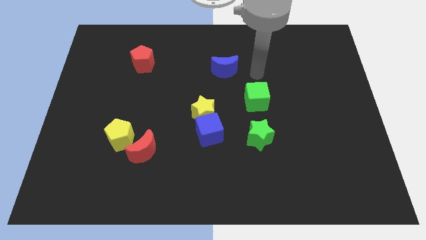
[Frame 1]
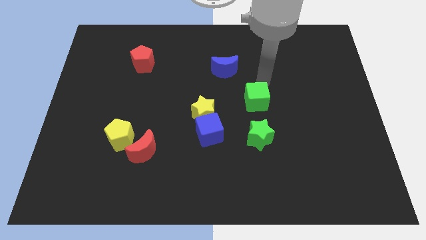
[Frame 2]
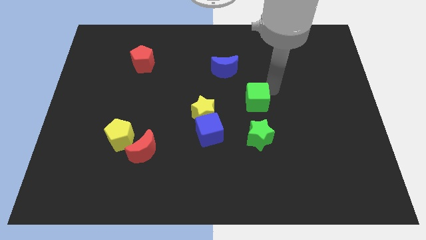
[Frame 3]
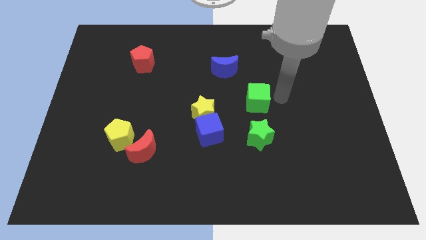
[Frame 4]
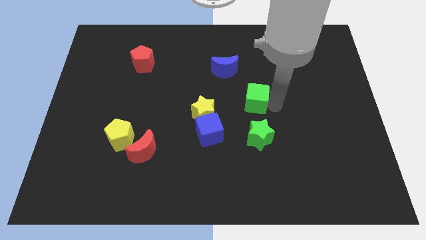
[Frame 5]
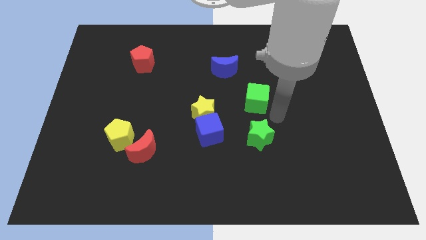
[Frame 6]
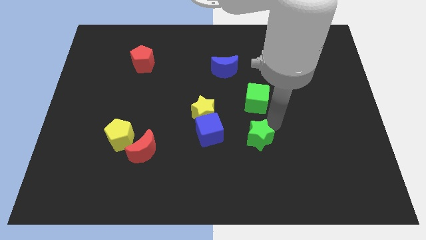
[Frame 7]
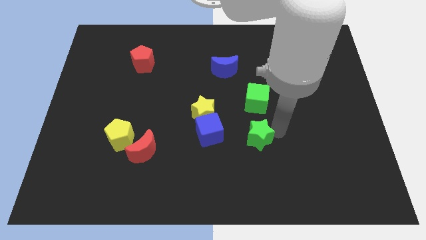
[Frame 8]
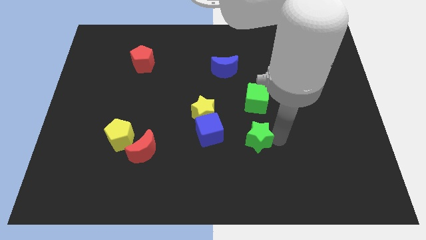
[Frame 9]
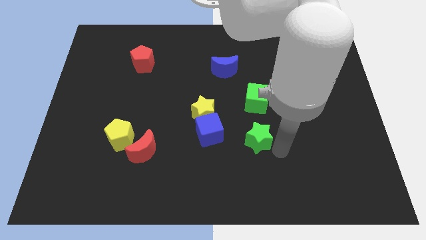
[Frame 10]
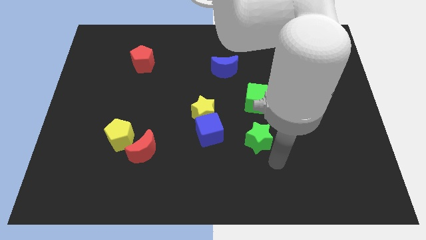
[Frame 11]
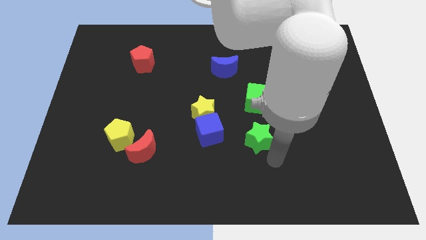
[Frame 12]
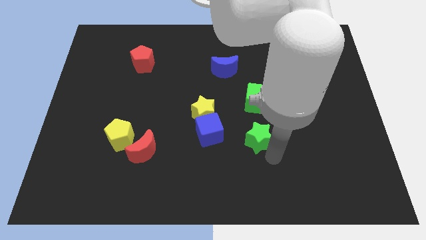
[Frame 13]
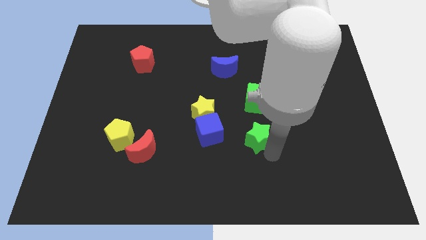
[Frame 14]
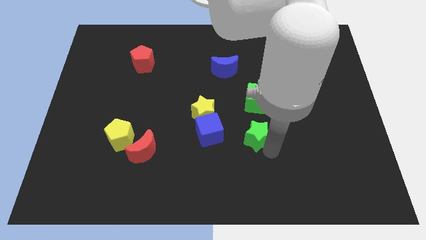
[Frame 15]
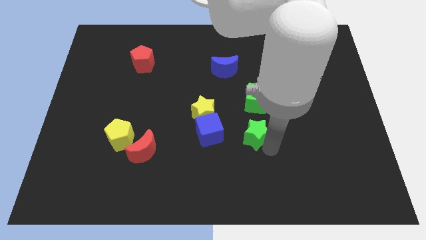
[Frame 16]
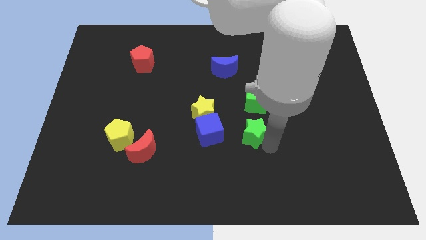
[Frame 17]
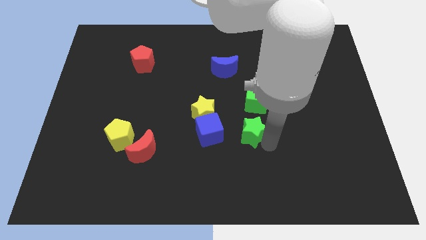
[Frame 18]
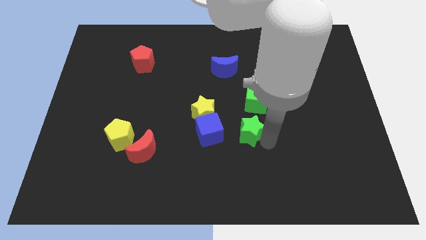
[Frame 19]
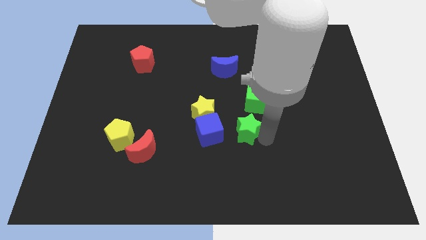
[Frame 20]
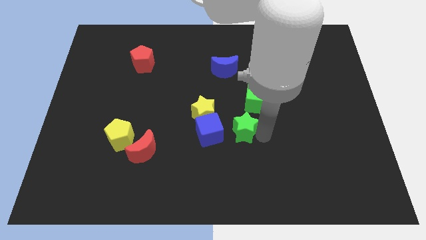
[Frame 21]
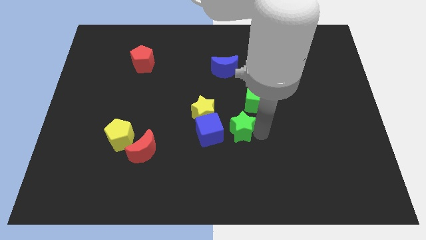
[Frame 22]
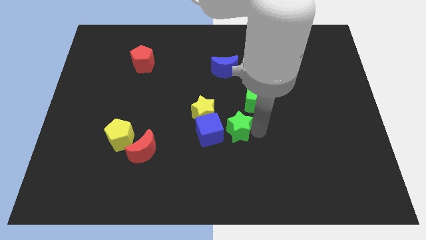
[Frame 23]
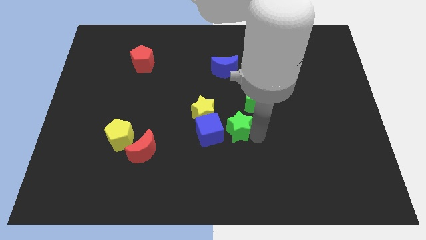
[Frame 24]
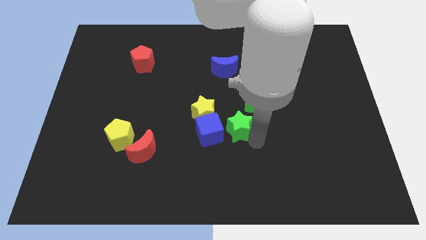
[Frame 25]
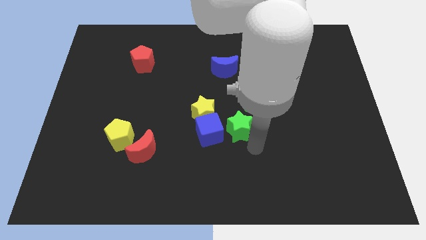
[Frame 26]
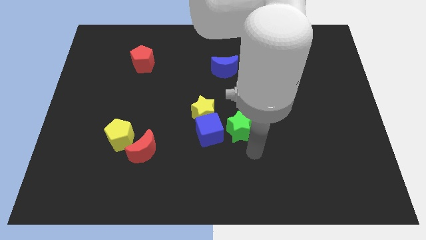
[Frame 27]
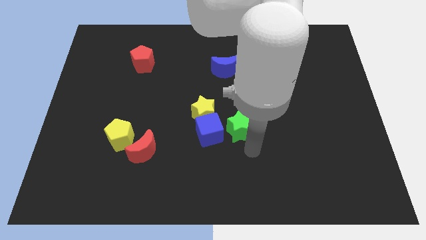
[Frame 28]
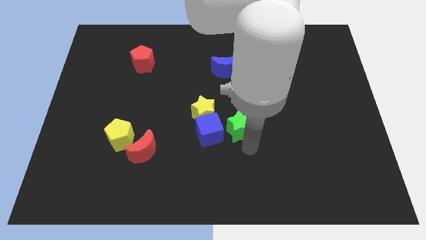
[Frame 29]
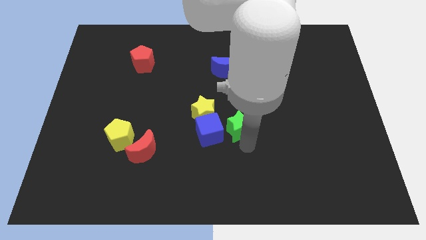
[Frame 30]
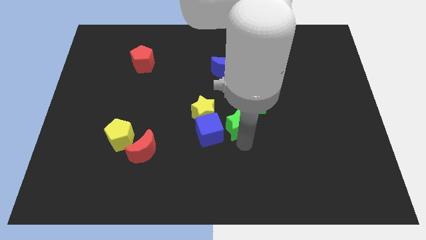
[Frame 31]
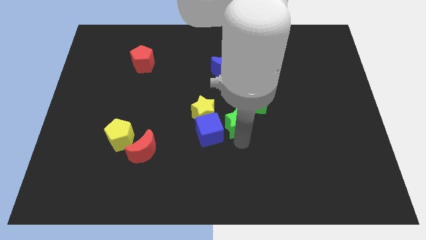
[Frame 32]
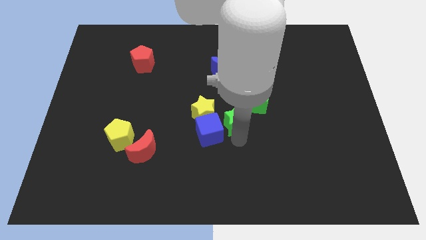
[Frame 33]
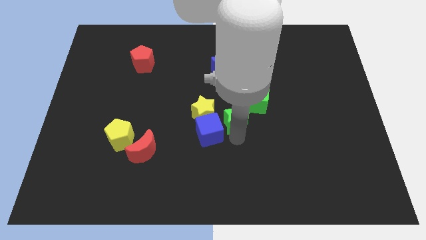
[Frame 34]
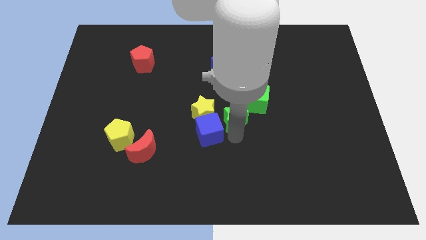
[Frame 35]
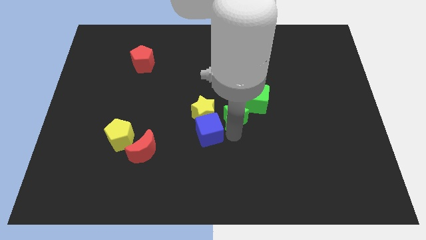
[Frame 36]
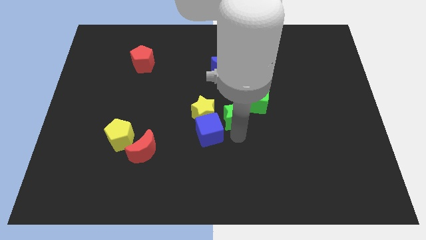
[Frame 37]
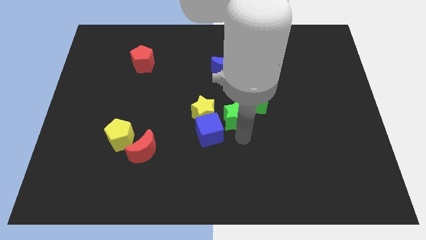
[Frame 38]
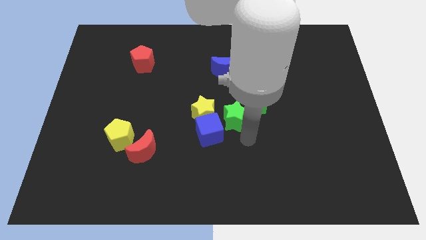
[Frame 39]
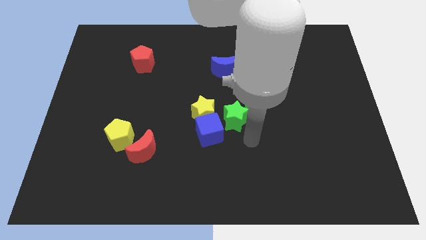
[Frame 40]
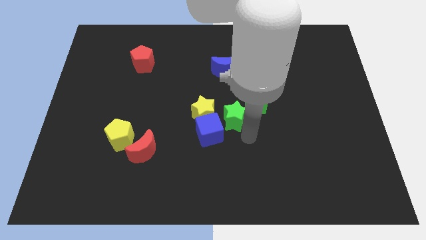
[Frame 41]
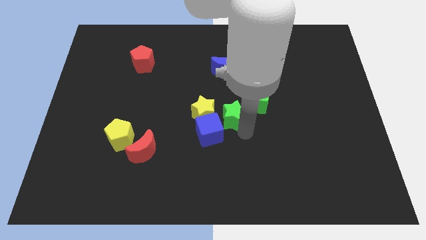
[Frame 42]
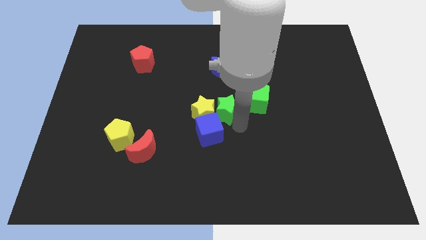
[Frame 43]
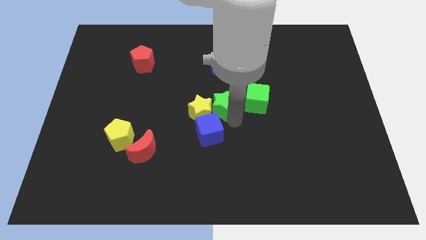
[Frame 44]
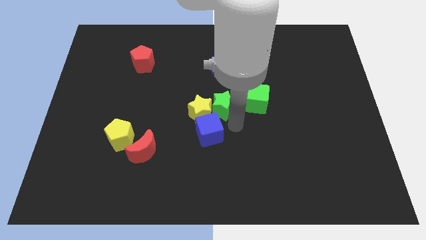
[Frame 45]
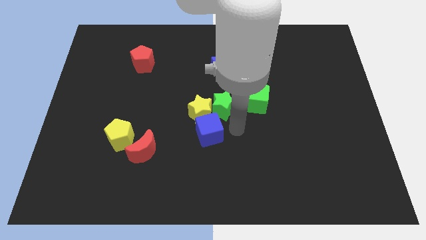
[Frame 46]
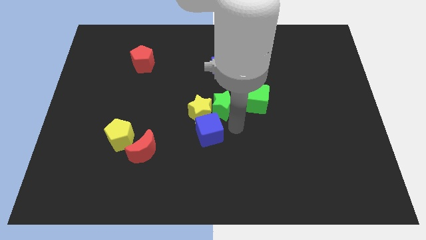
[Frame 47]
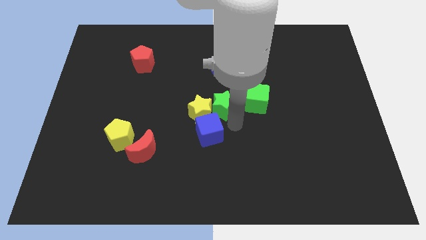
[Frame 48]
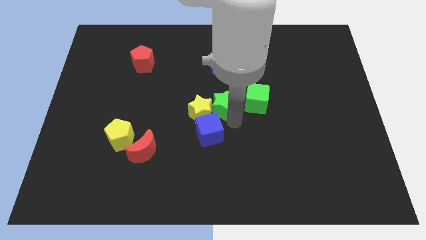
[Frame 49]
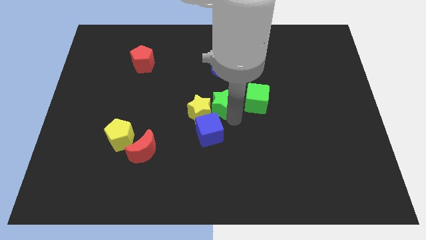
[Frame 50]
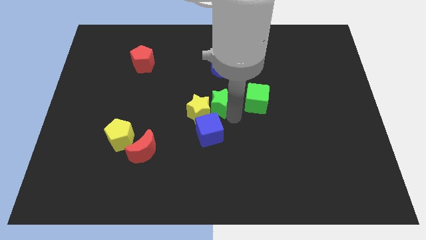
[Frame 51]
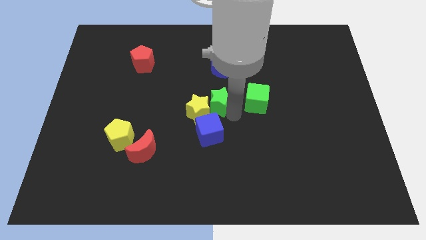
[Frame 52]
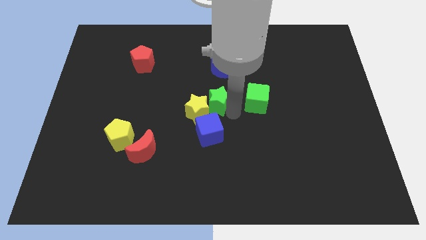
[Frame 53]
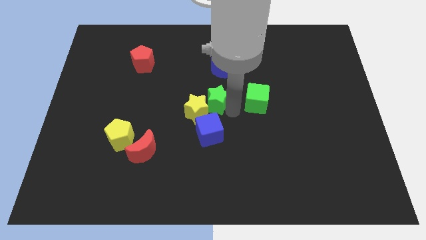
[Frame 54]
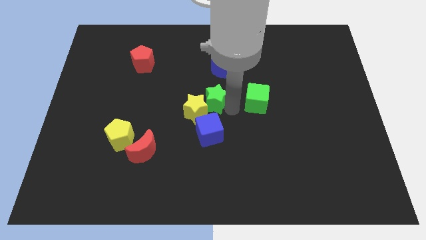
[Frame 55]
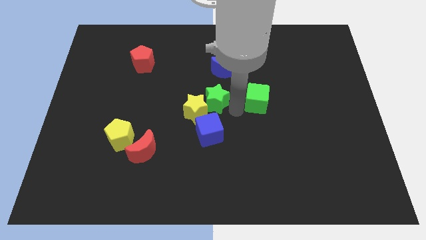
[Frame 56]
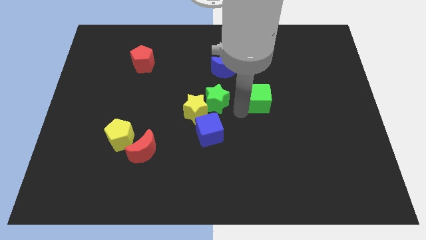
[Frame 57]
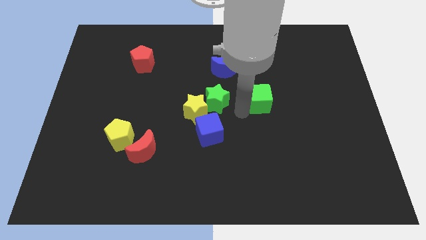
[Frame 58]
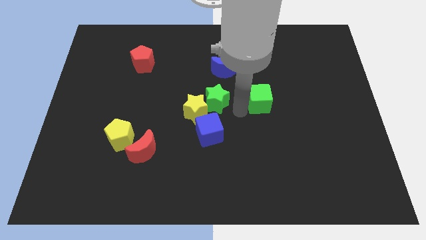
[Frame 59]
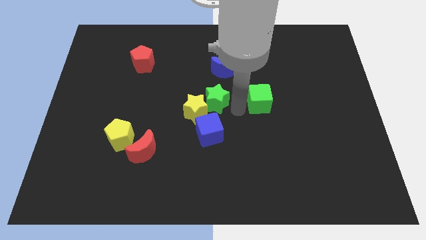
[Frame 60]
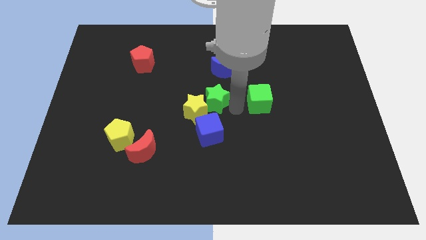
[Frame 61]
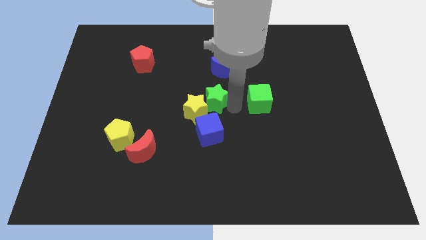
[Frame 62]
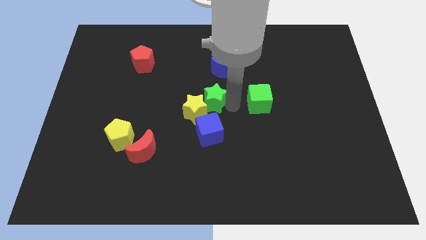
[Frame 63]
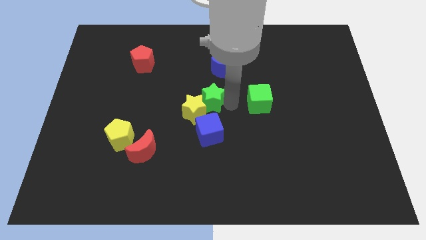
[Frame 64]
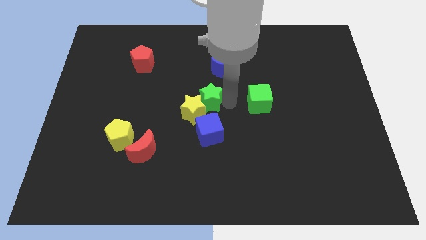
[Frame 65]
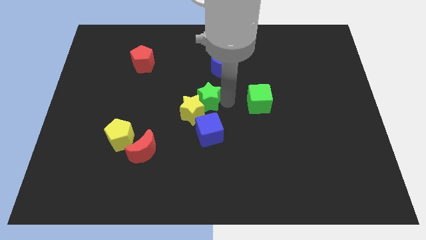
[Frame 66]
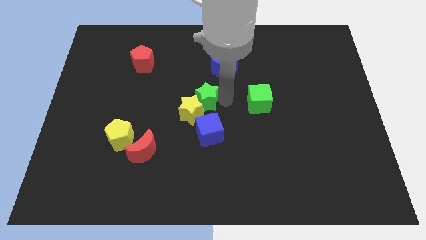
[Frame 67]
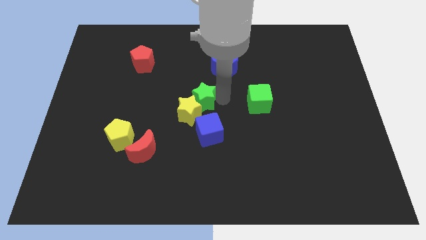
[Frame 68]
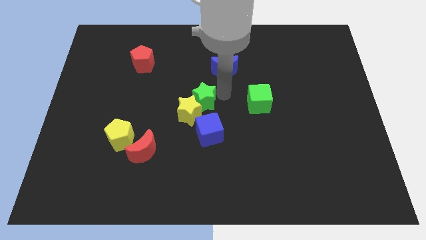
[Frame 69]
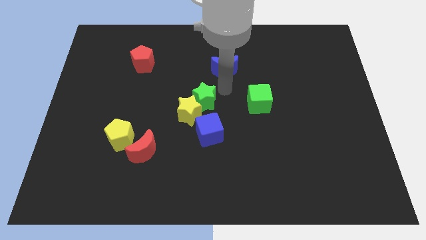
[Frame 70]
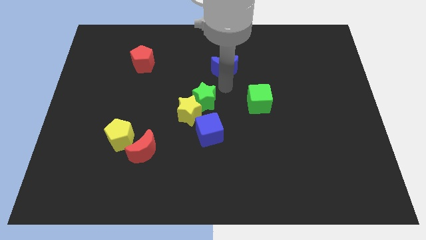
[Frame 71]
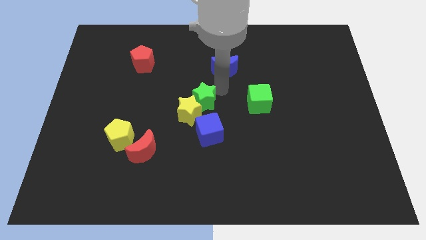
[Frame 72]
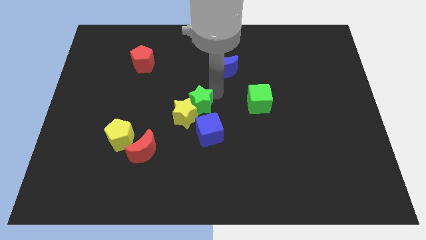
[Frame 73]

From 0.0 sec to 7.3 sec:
slide the green star to the top left side of the blue cube

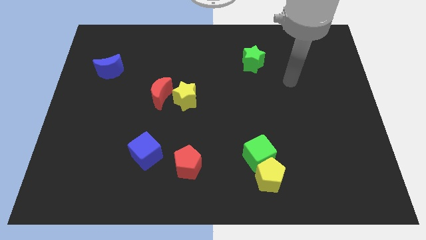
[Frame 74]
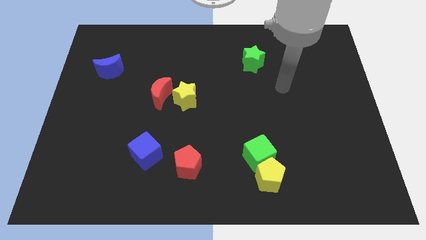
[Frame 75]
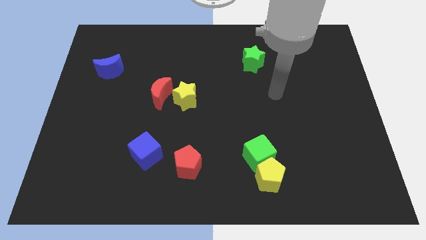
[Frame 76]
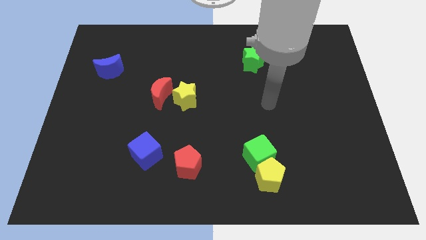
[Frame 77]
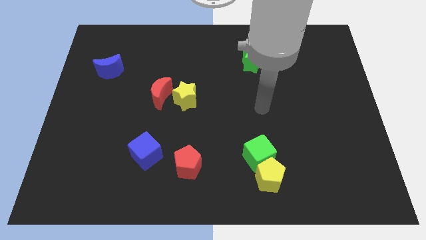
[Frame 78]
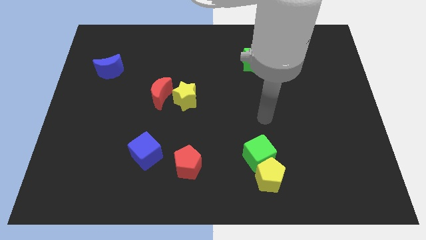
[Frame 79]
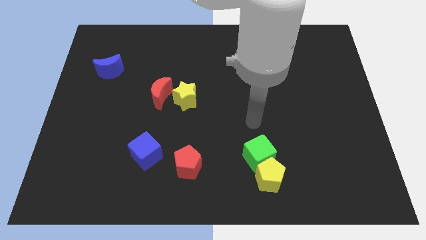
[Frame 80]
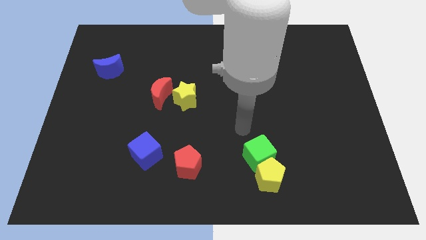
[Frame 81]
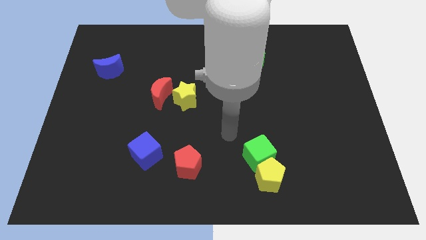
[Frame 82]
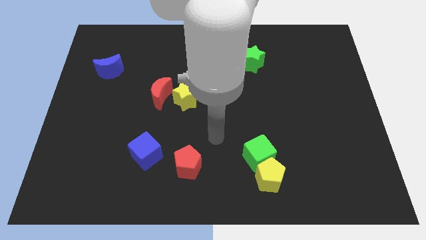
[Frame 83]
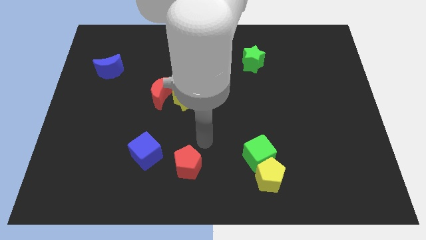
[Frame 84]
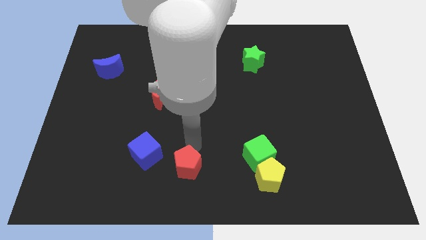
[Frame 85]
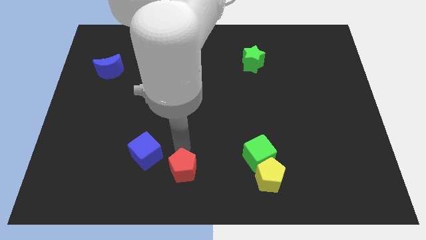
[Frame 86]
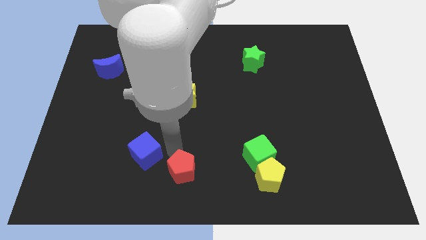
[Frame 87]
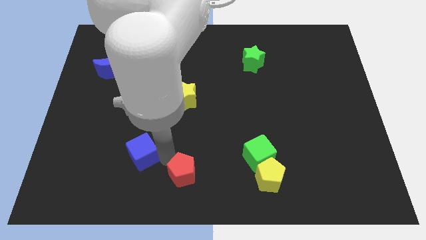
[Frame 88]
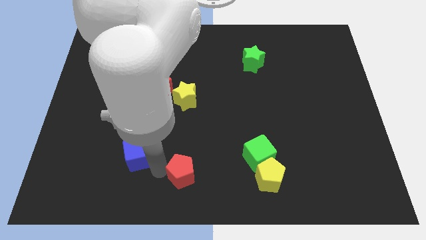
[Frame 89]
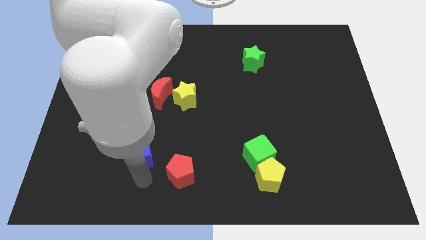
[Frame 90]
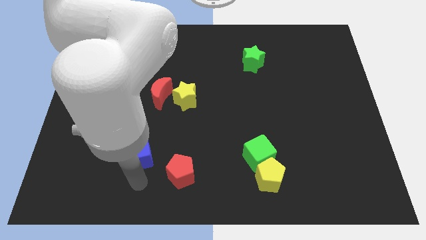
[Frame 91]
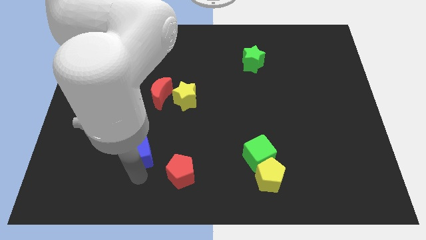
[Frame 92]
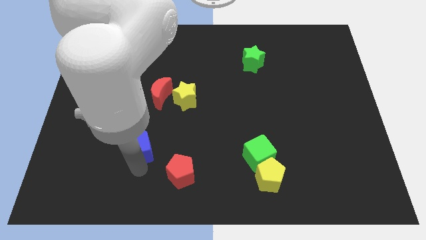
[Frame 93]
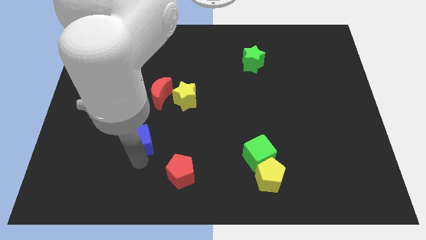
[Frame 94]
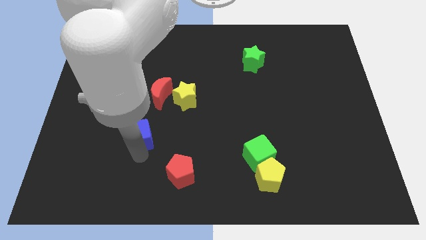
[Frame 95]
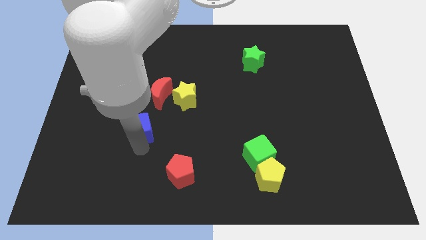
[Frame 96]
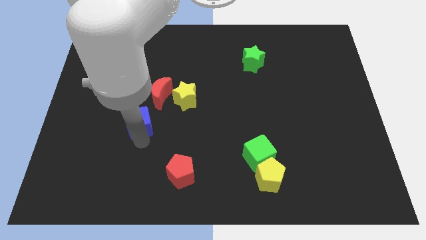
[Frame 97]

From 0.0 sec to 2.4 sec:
move the blue cube to the bottom left of the red moon
